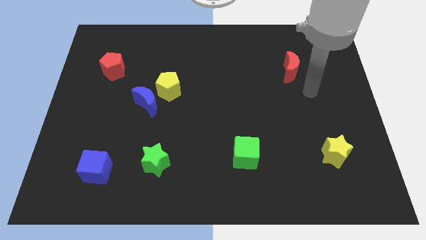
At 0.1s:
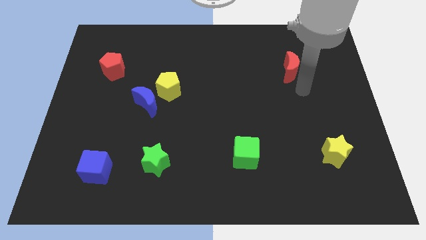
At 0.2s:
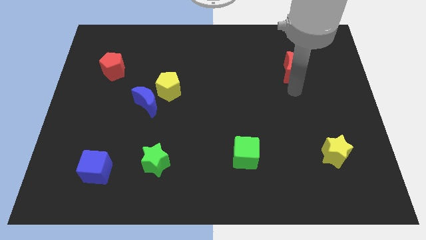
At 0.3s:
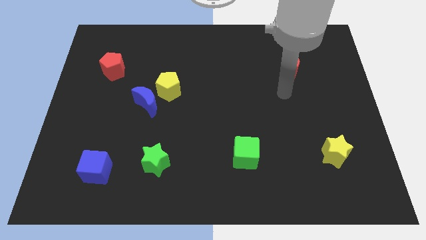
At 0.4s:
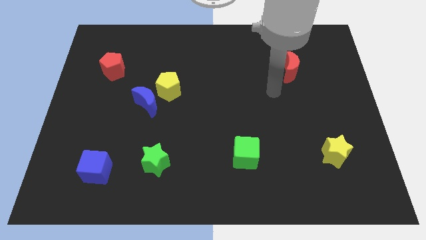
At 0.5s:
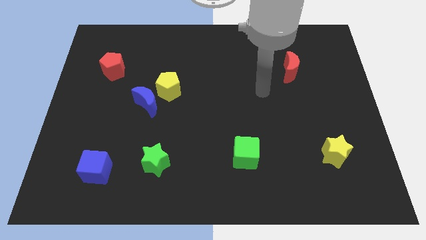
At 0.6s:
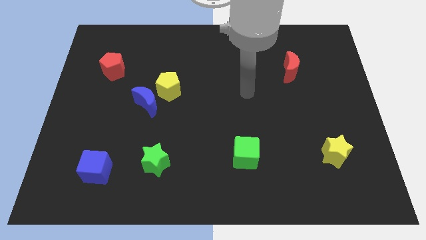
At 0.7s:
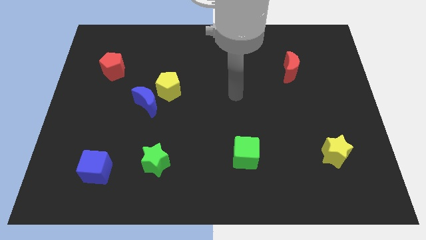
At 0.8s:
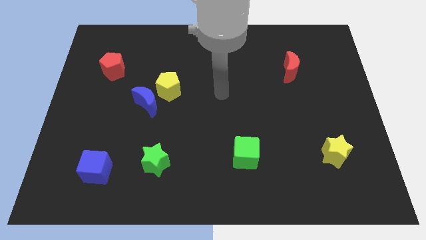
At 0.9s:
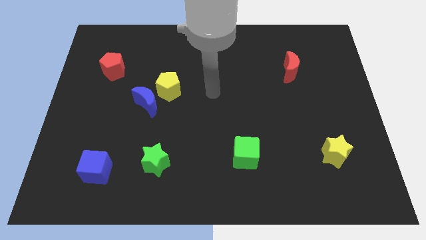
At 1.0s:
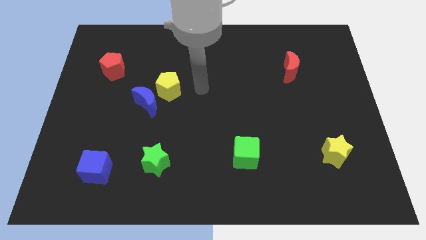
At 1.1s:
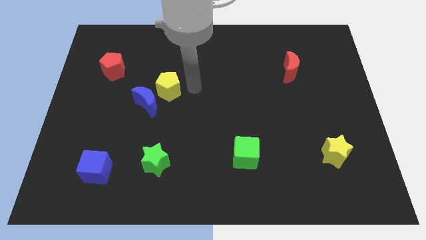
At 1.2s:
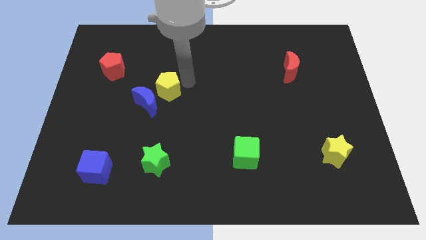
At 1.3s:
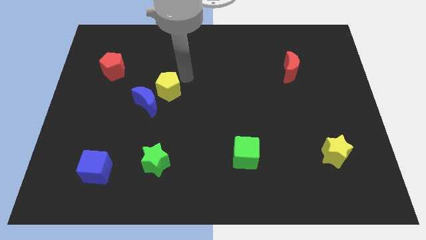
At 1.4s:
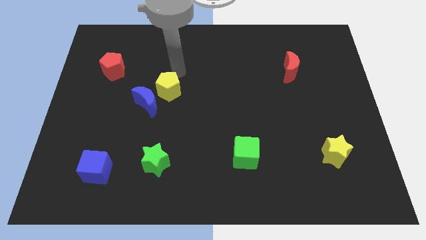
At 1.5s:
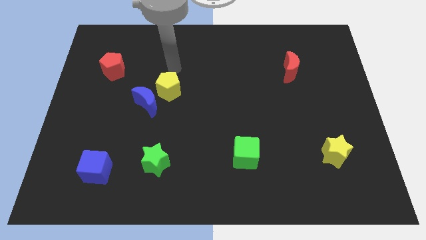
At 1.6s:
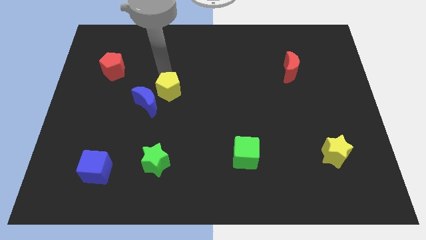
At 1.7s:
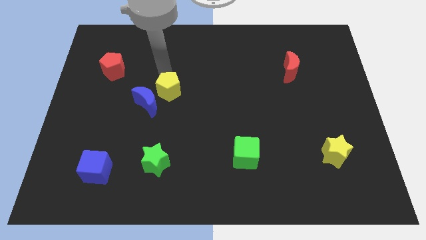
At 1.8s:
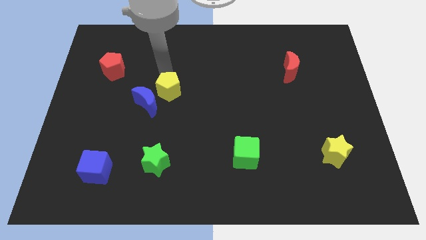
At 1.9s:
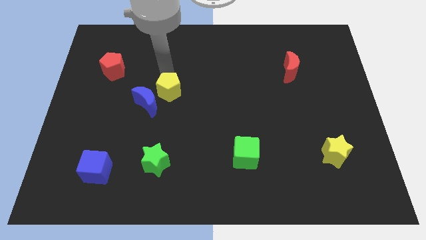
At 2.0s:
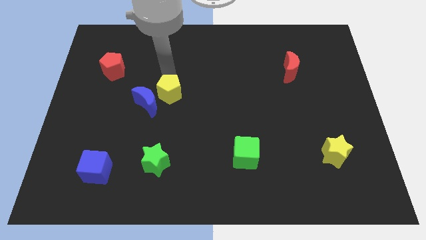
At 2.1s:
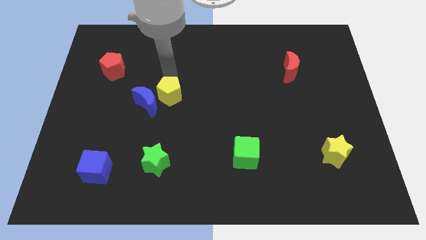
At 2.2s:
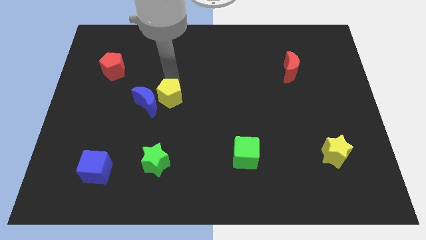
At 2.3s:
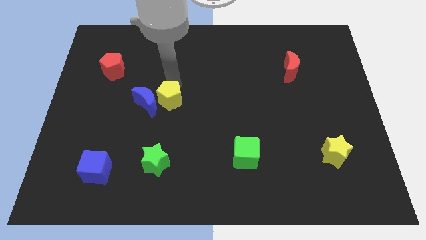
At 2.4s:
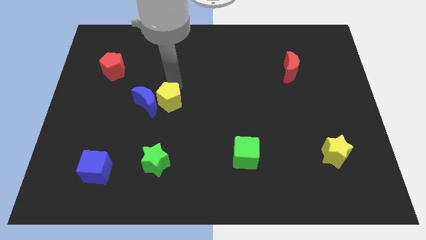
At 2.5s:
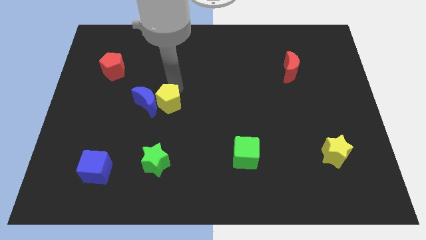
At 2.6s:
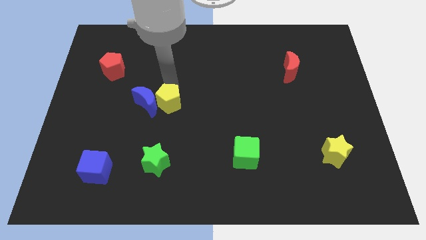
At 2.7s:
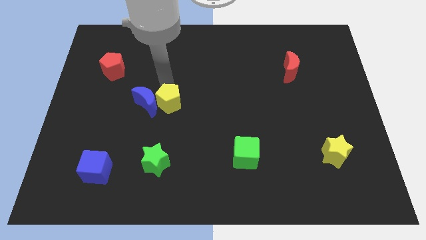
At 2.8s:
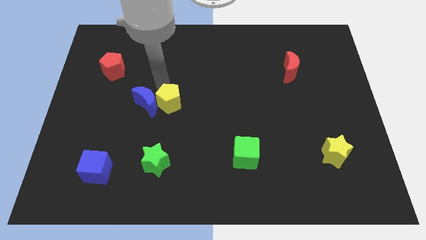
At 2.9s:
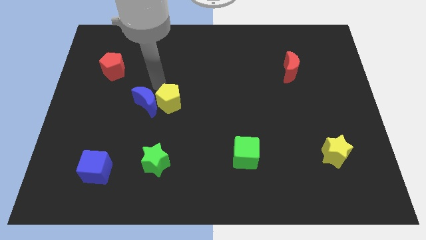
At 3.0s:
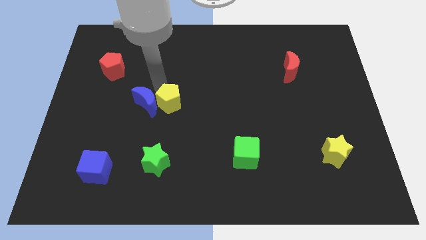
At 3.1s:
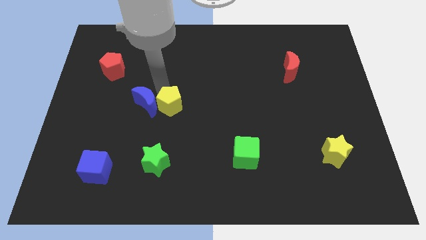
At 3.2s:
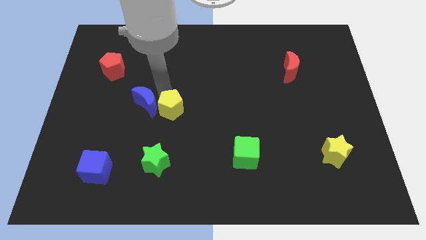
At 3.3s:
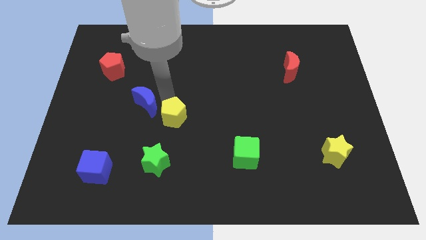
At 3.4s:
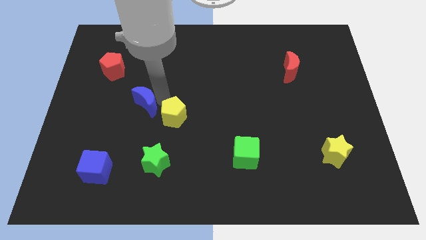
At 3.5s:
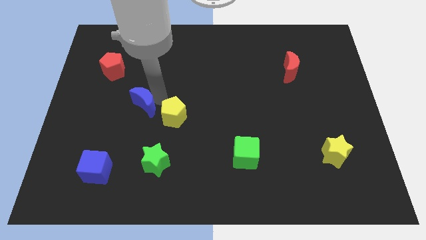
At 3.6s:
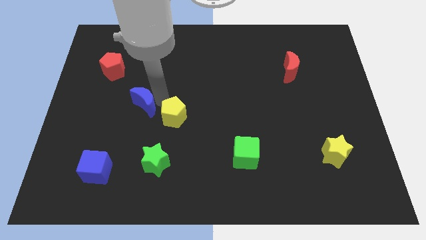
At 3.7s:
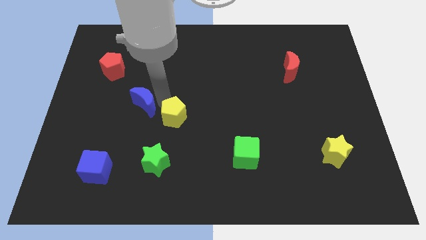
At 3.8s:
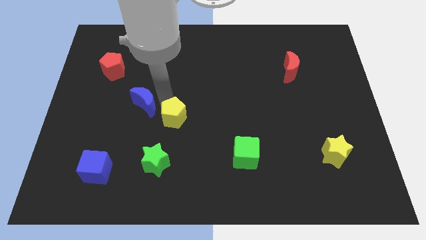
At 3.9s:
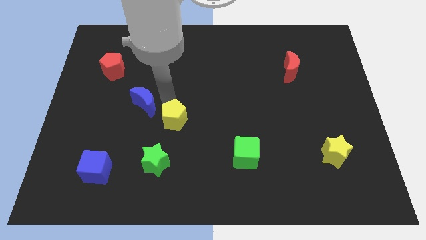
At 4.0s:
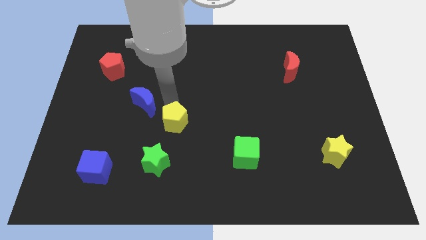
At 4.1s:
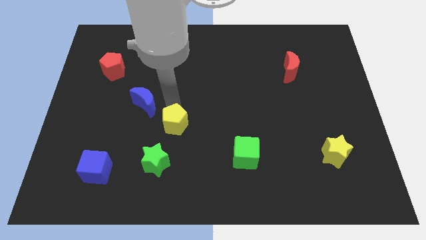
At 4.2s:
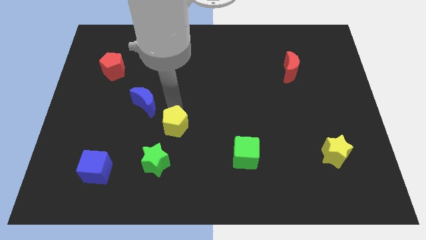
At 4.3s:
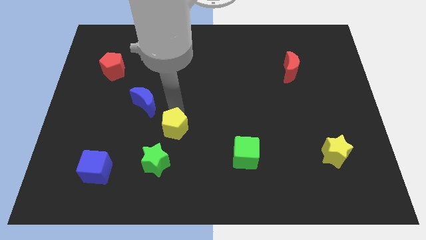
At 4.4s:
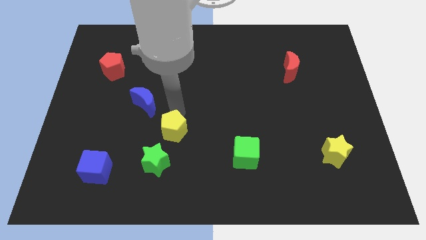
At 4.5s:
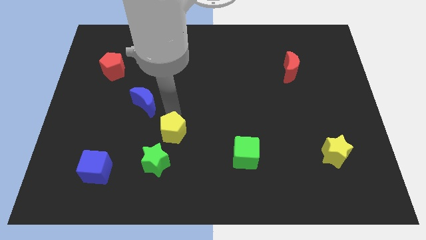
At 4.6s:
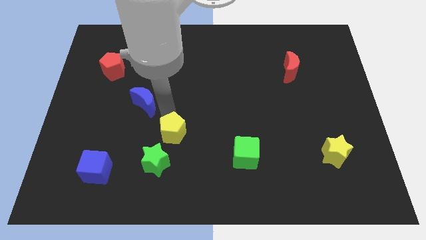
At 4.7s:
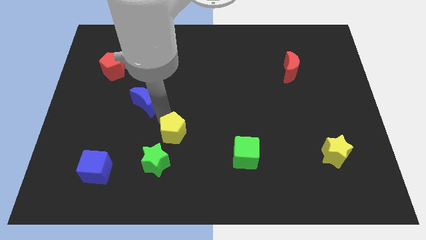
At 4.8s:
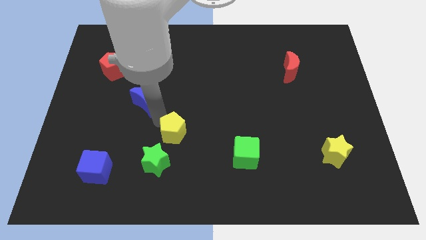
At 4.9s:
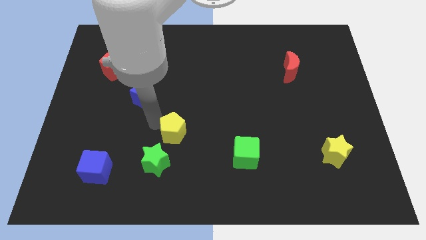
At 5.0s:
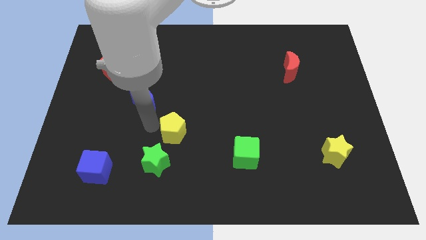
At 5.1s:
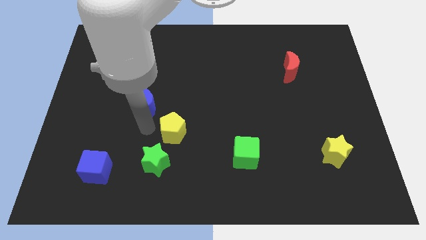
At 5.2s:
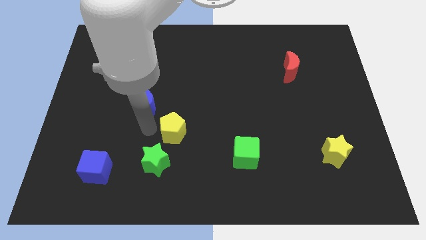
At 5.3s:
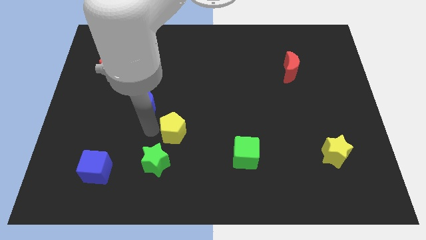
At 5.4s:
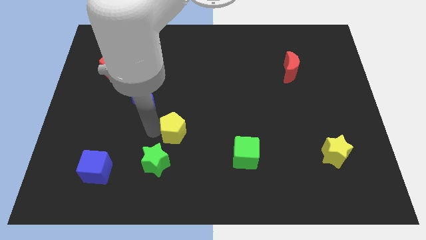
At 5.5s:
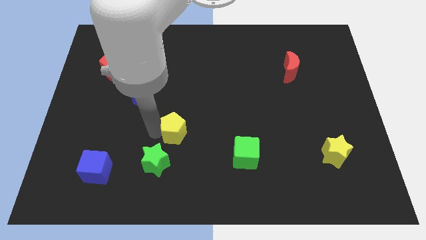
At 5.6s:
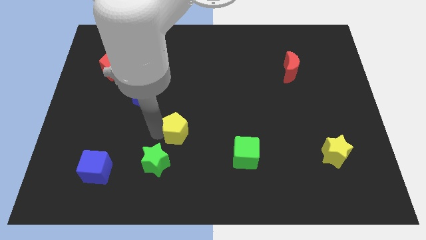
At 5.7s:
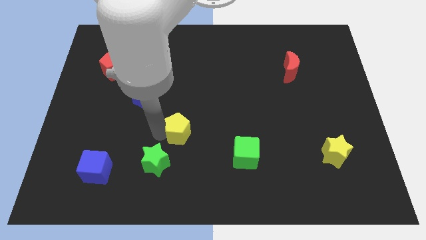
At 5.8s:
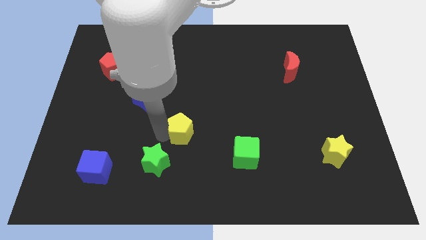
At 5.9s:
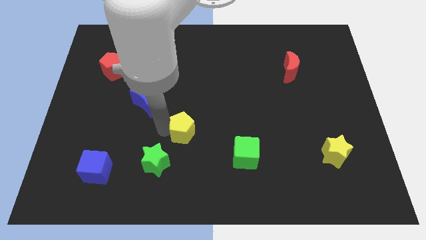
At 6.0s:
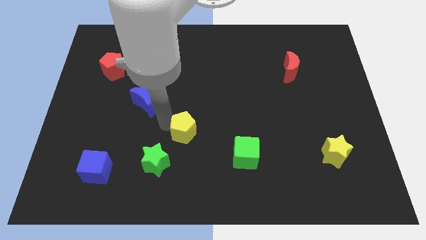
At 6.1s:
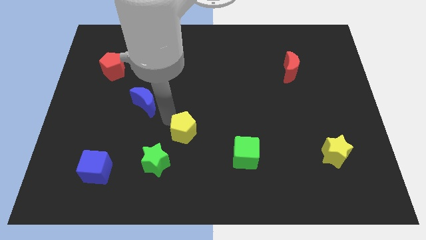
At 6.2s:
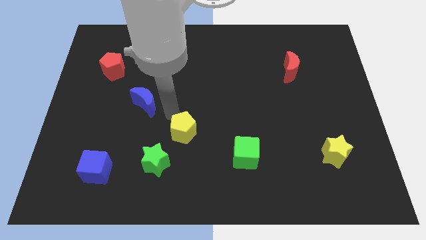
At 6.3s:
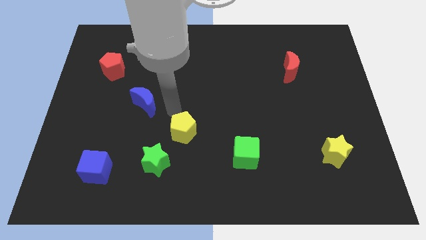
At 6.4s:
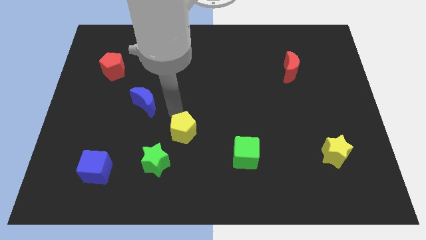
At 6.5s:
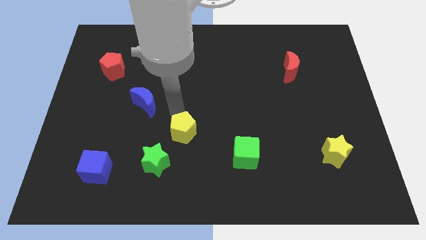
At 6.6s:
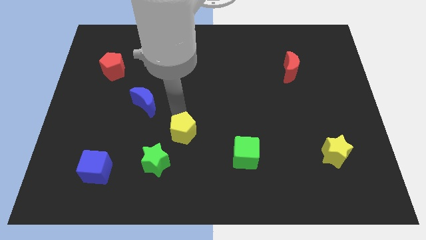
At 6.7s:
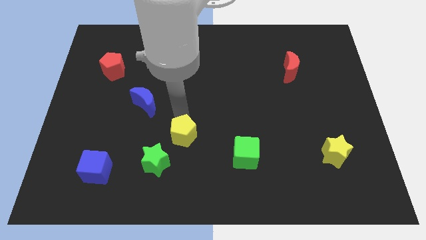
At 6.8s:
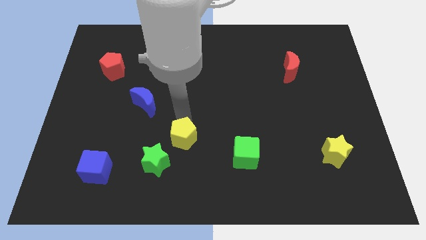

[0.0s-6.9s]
move the yellow pentagon left of the green cube

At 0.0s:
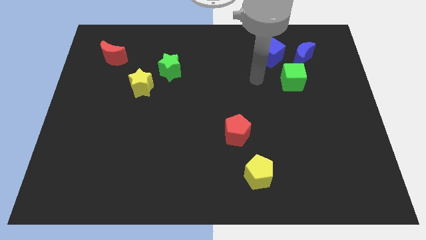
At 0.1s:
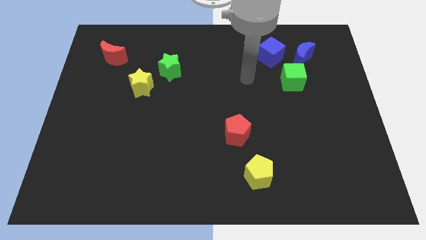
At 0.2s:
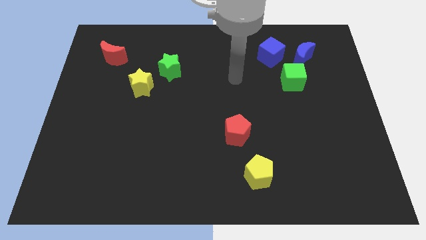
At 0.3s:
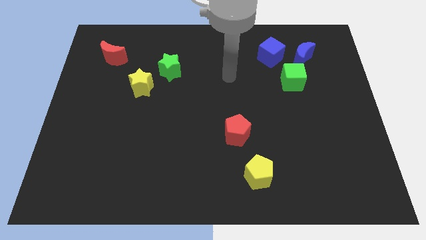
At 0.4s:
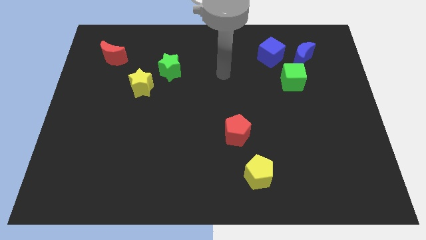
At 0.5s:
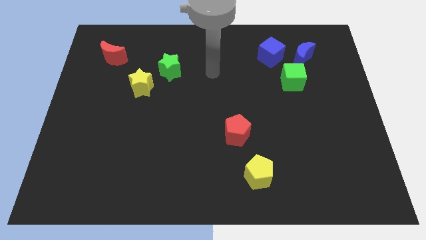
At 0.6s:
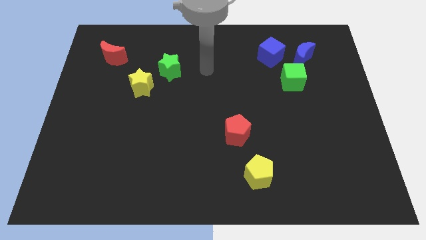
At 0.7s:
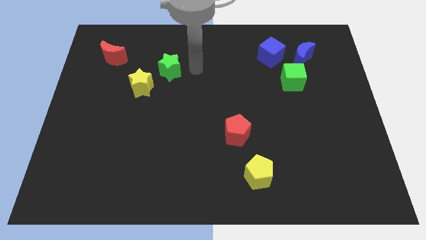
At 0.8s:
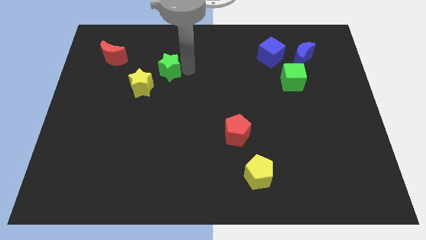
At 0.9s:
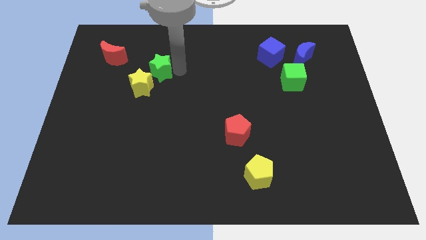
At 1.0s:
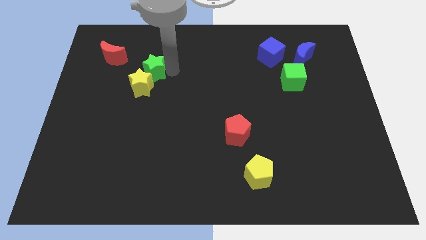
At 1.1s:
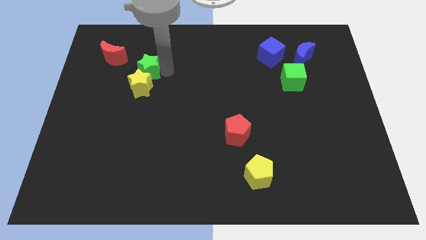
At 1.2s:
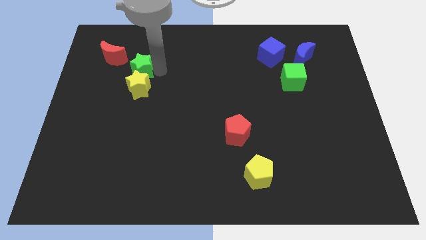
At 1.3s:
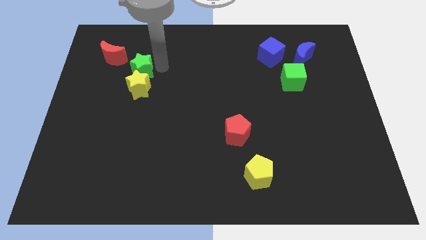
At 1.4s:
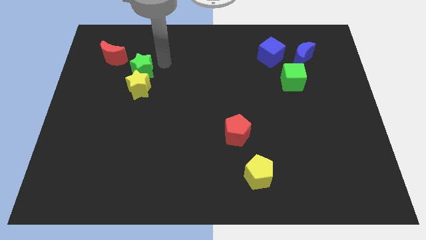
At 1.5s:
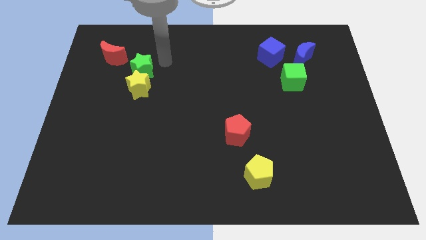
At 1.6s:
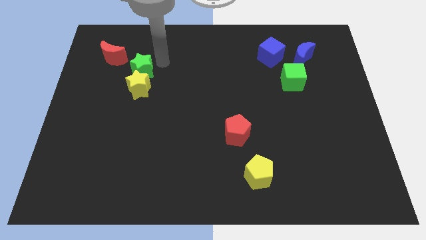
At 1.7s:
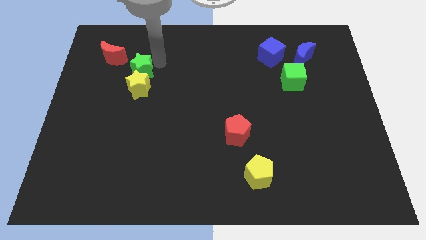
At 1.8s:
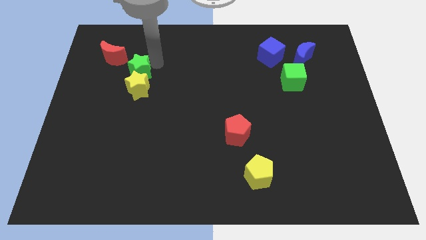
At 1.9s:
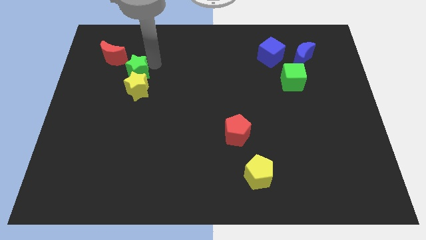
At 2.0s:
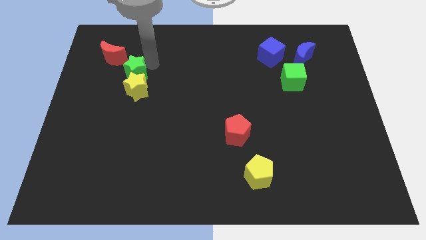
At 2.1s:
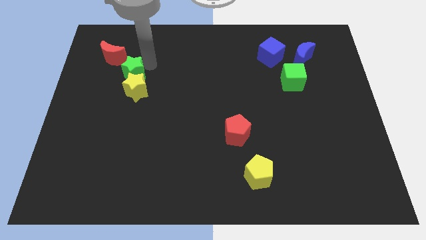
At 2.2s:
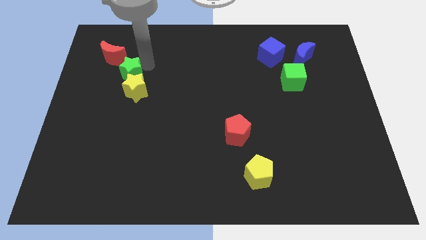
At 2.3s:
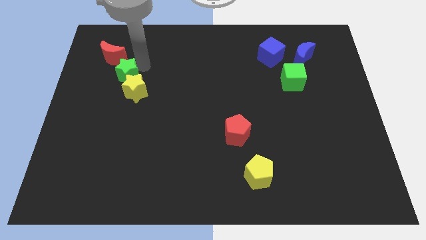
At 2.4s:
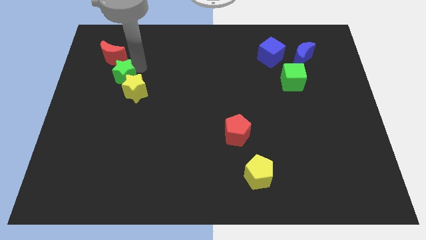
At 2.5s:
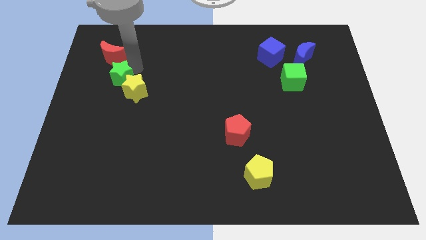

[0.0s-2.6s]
put the green star just left of the yellow star
